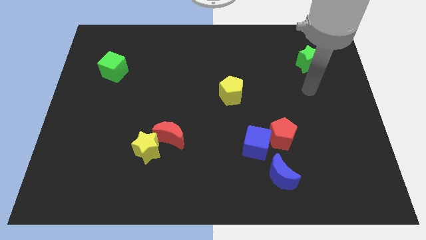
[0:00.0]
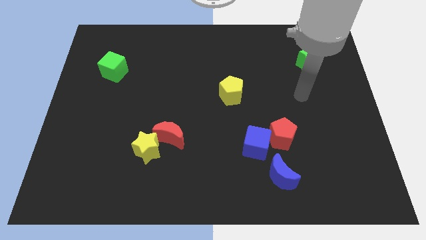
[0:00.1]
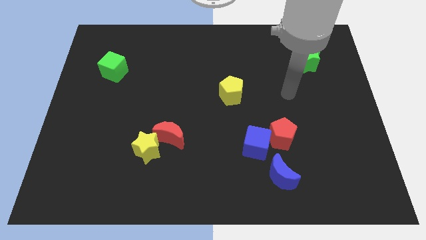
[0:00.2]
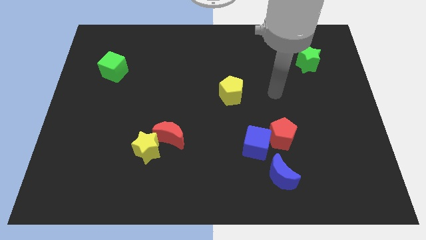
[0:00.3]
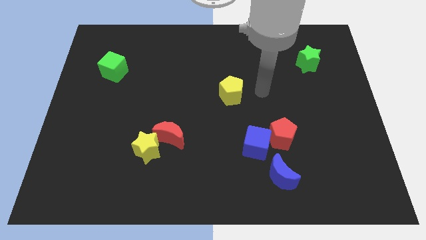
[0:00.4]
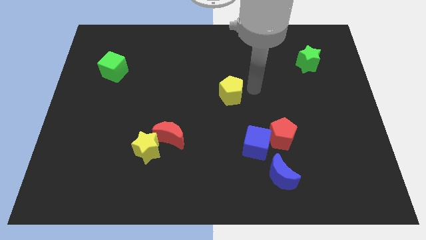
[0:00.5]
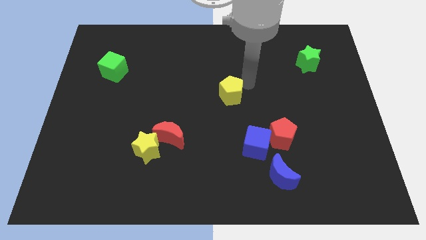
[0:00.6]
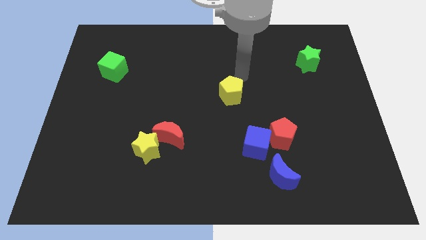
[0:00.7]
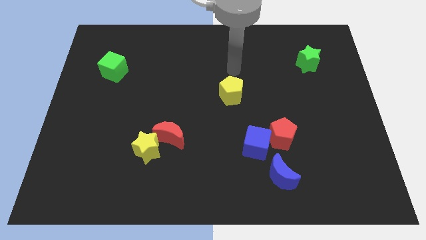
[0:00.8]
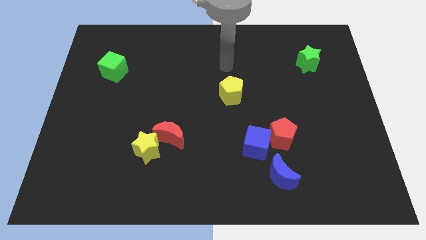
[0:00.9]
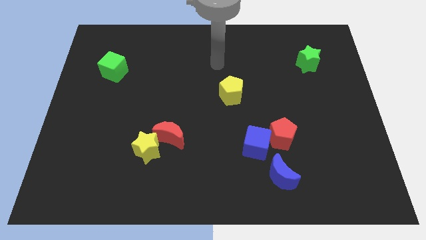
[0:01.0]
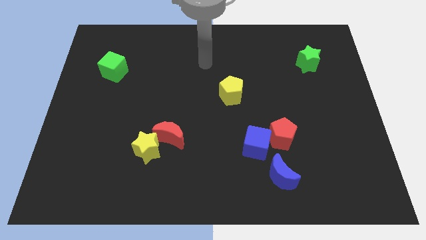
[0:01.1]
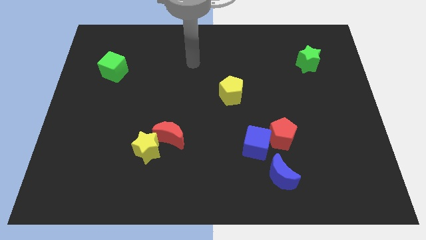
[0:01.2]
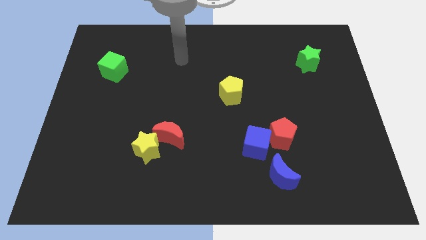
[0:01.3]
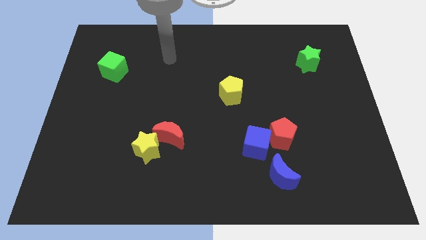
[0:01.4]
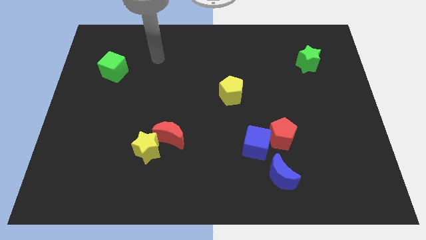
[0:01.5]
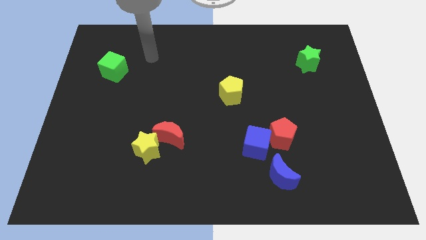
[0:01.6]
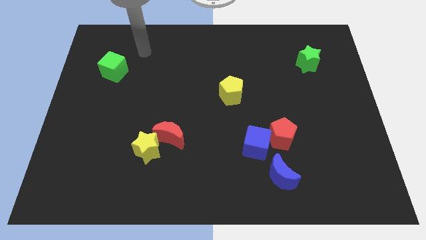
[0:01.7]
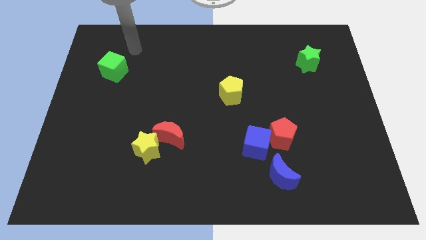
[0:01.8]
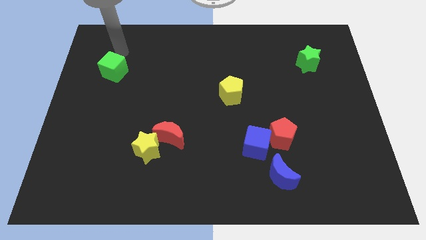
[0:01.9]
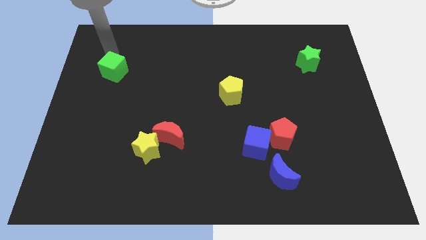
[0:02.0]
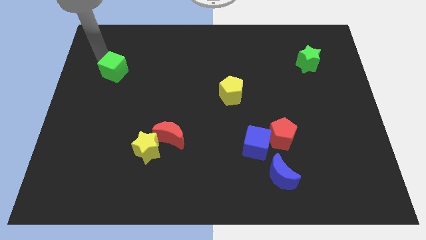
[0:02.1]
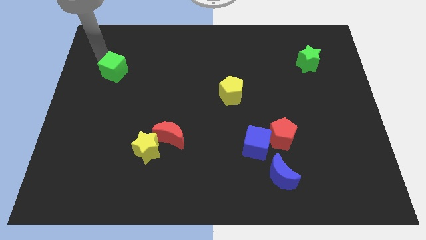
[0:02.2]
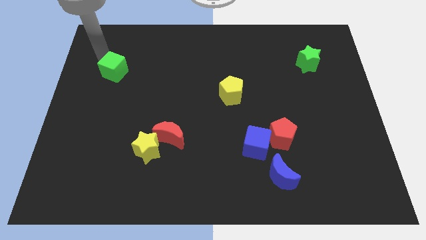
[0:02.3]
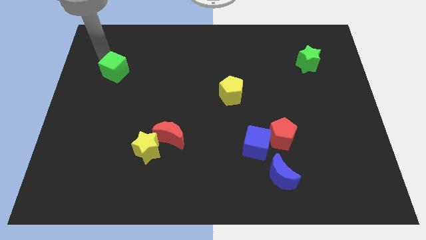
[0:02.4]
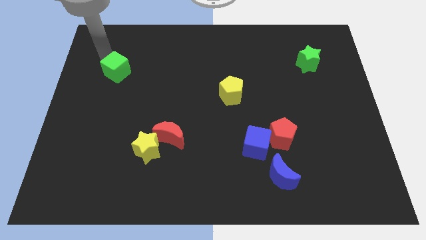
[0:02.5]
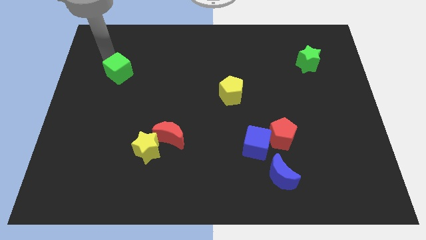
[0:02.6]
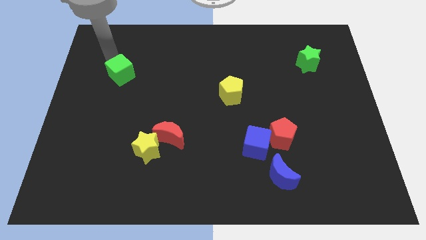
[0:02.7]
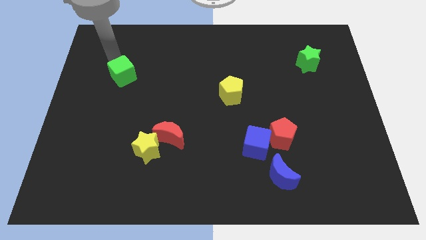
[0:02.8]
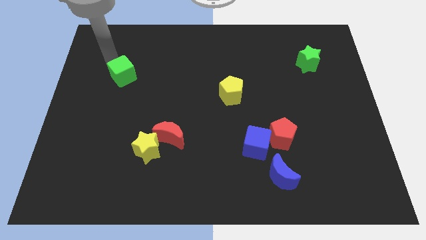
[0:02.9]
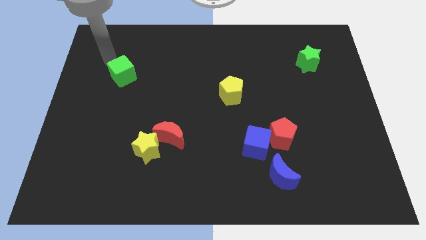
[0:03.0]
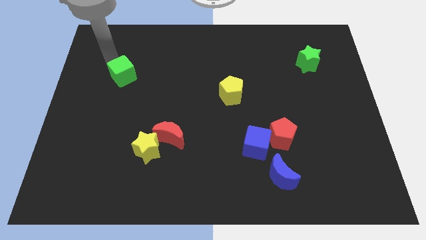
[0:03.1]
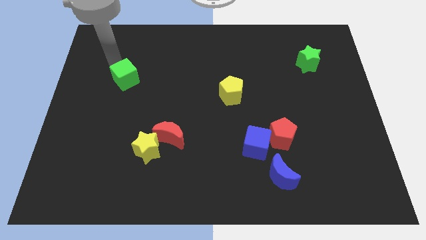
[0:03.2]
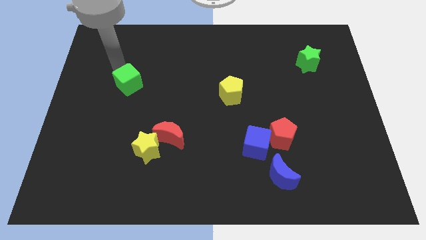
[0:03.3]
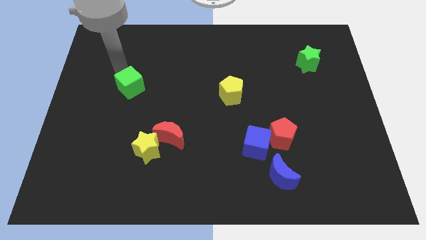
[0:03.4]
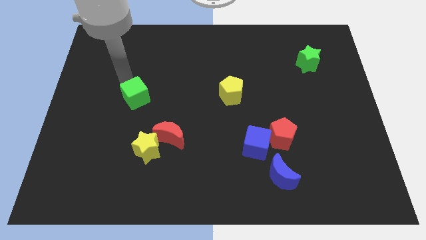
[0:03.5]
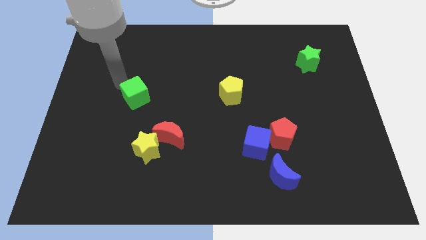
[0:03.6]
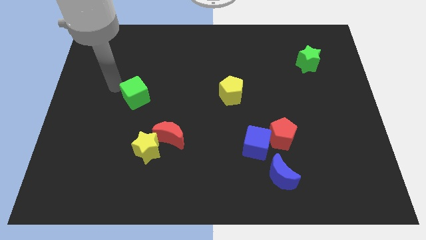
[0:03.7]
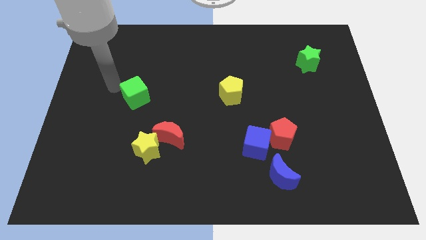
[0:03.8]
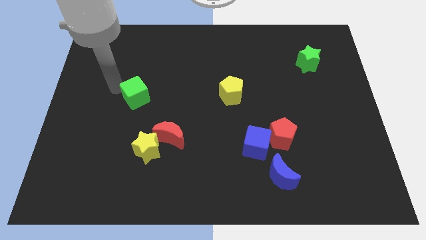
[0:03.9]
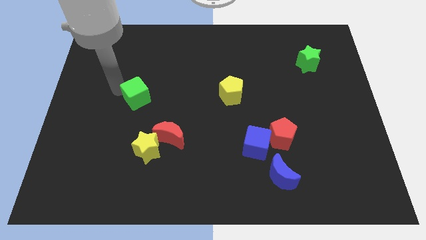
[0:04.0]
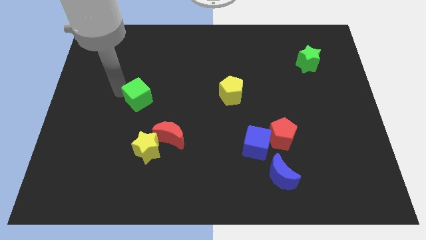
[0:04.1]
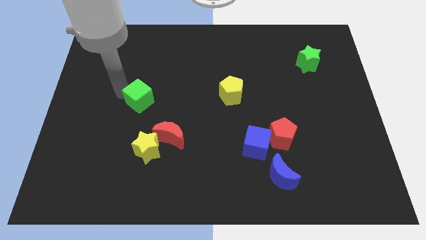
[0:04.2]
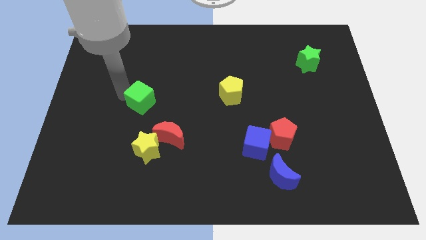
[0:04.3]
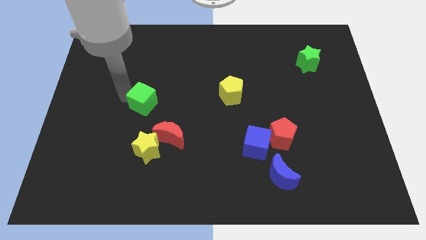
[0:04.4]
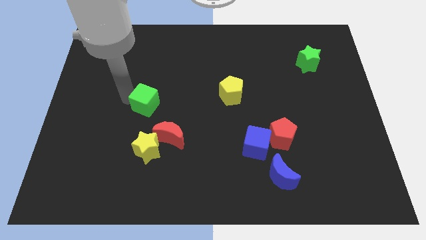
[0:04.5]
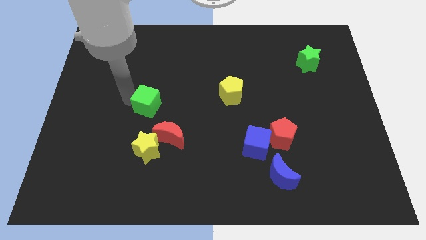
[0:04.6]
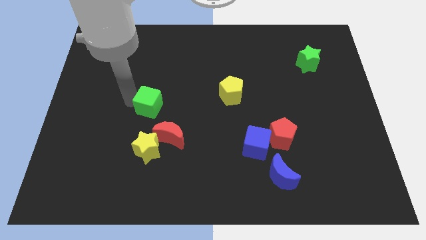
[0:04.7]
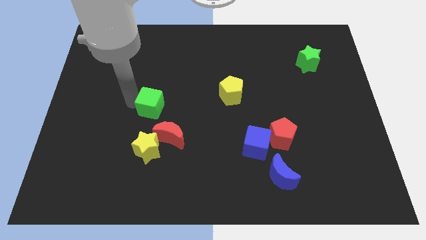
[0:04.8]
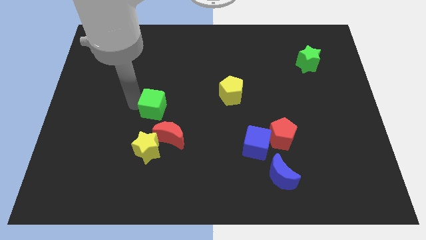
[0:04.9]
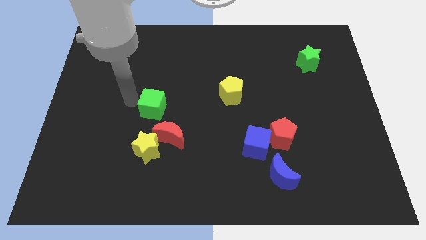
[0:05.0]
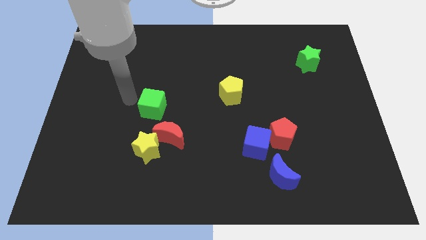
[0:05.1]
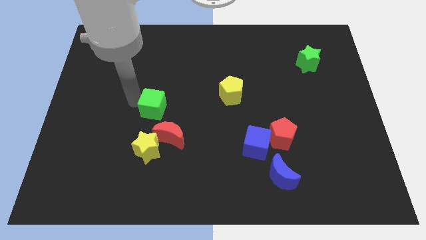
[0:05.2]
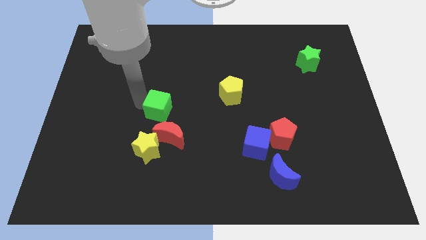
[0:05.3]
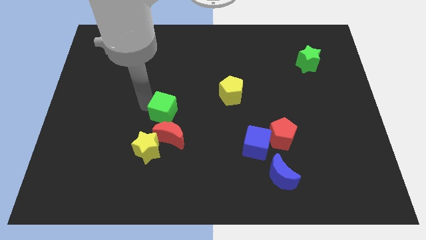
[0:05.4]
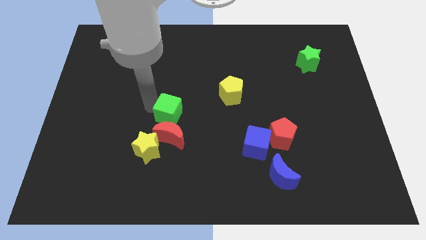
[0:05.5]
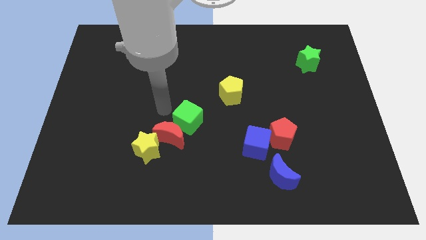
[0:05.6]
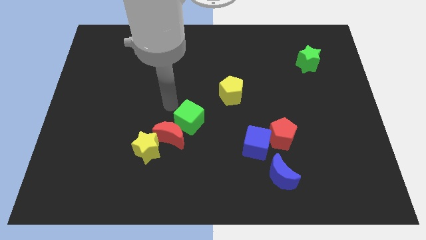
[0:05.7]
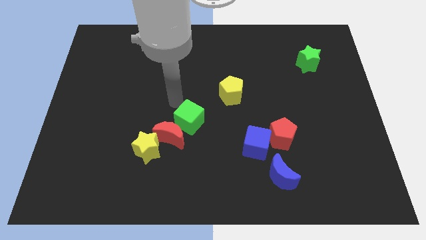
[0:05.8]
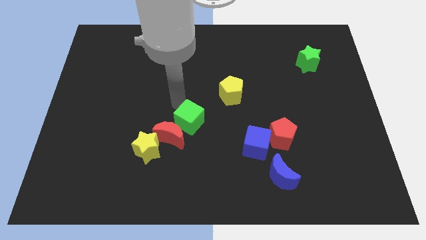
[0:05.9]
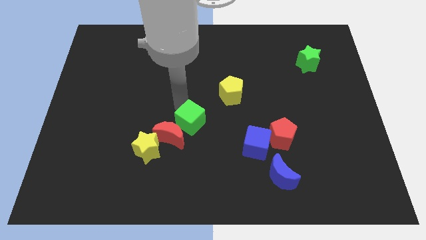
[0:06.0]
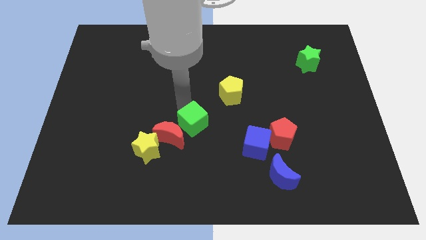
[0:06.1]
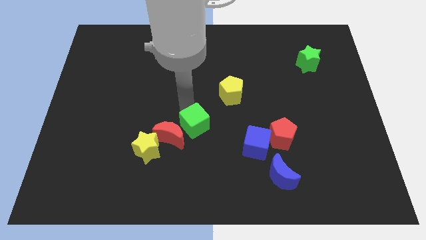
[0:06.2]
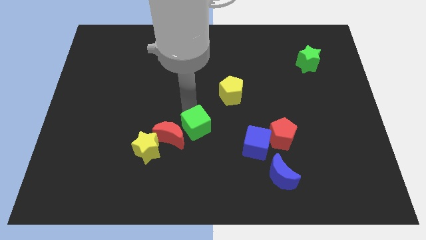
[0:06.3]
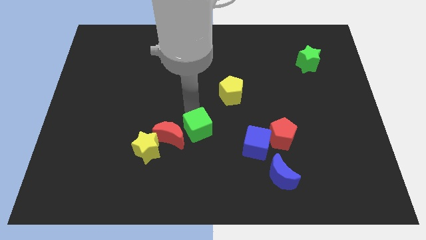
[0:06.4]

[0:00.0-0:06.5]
move the green cube just left of the blue cube
